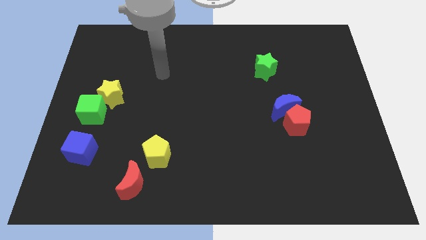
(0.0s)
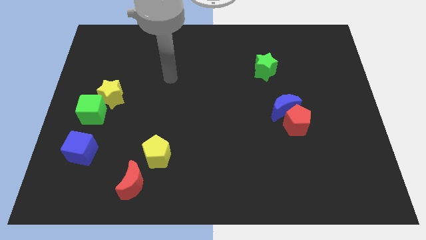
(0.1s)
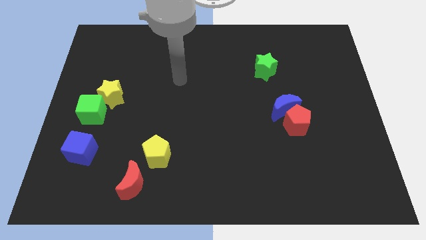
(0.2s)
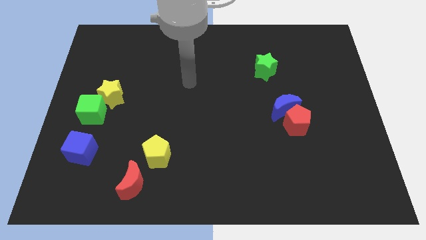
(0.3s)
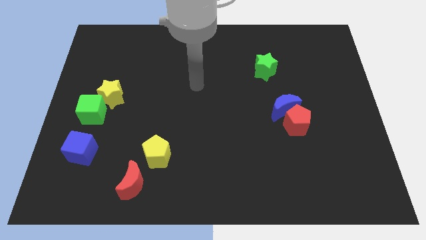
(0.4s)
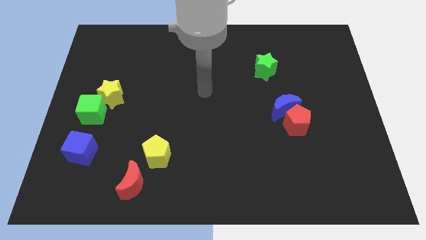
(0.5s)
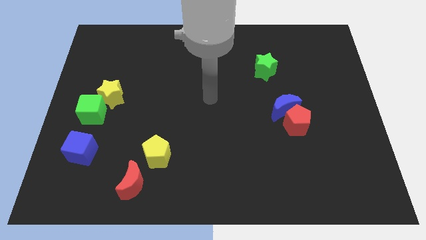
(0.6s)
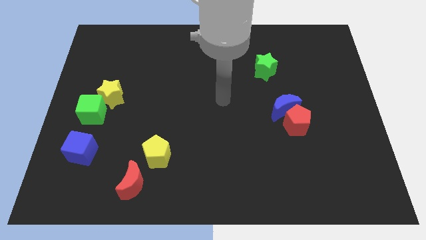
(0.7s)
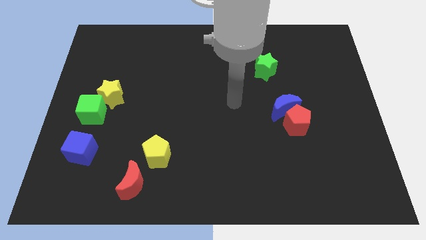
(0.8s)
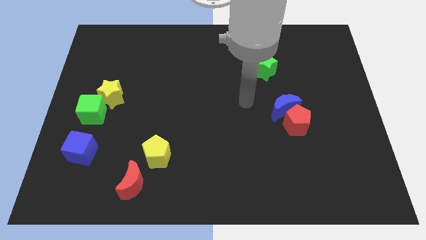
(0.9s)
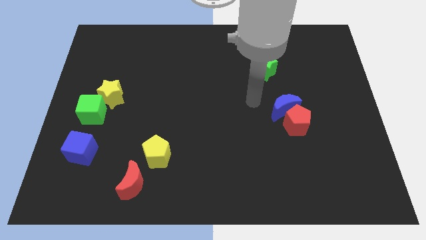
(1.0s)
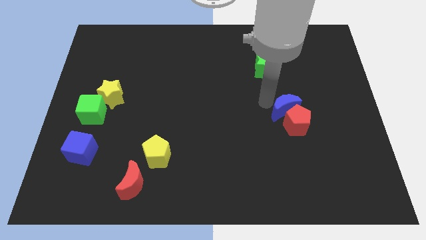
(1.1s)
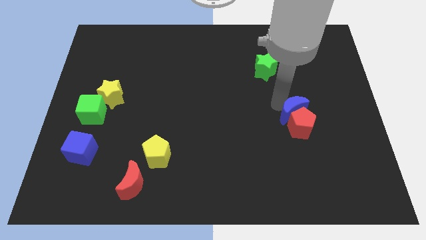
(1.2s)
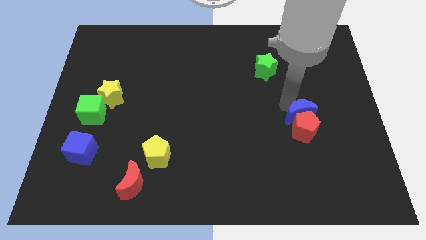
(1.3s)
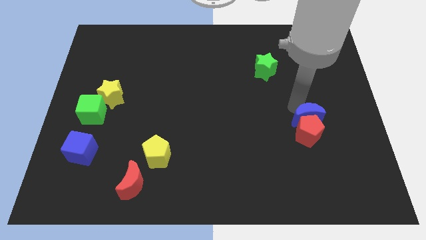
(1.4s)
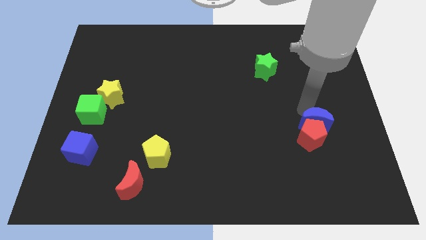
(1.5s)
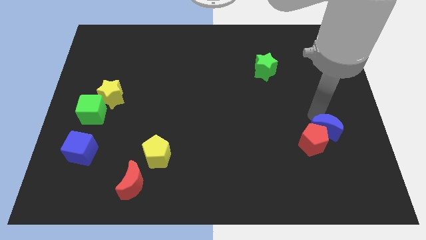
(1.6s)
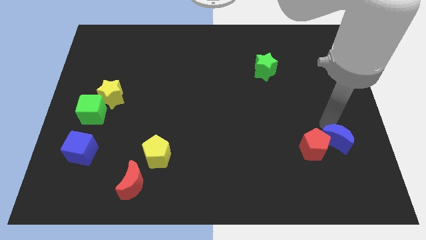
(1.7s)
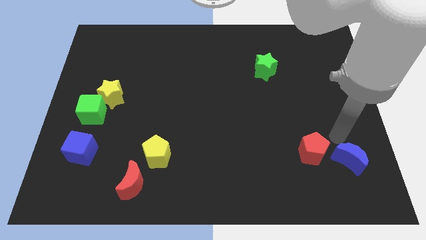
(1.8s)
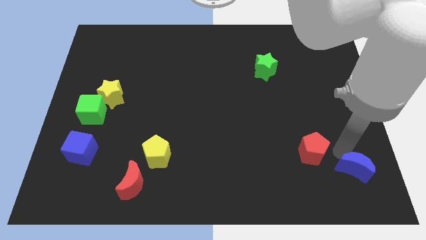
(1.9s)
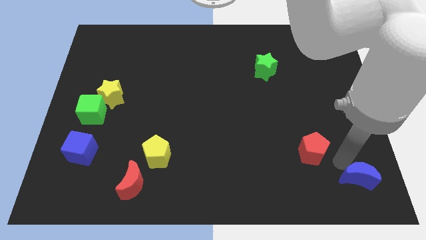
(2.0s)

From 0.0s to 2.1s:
pull the red pentagon apart from the blue moon

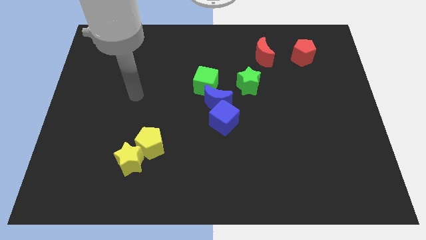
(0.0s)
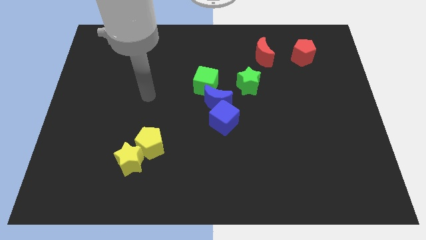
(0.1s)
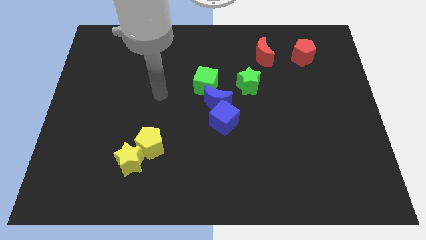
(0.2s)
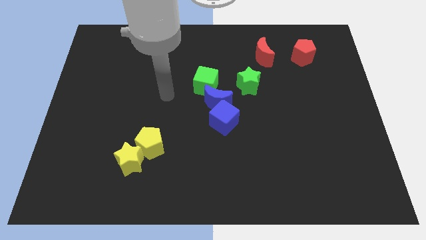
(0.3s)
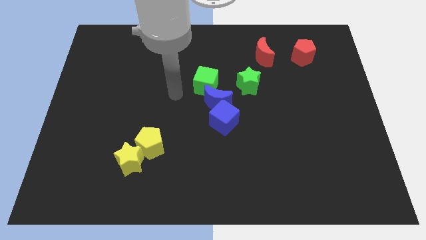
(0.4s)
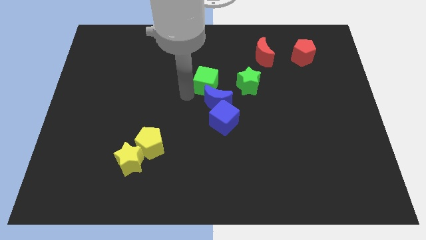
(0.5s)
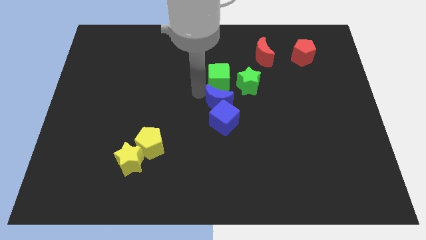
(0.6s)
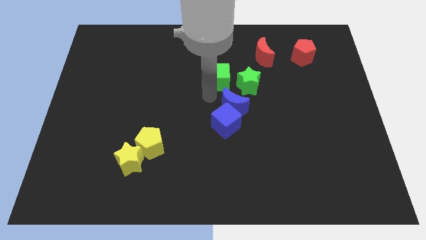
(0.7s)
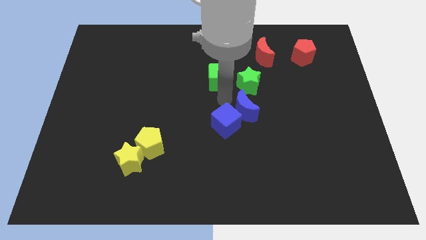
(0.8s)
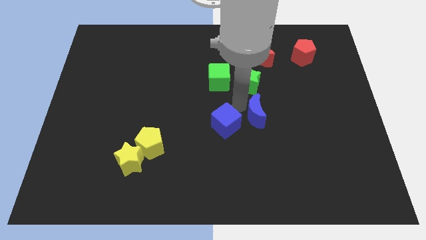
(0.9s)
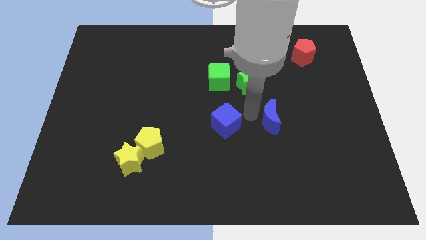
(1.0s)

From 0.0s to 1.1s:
pull the blue cube apart from the blue moon

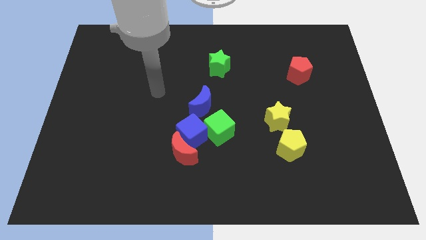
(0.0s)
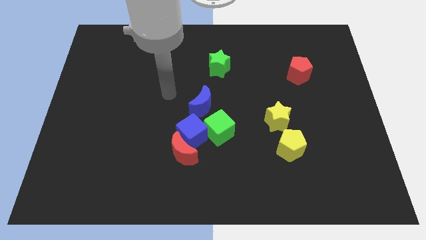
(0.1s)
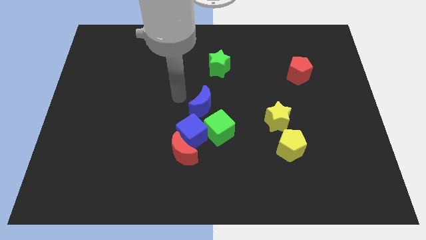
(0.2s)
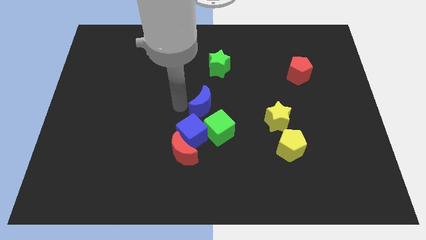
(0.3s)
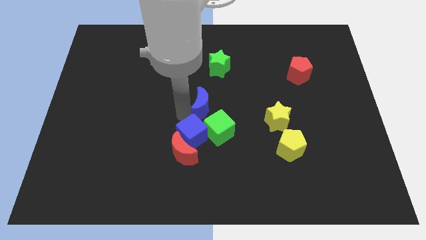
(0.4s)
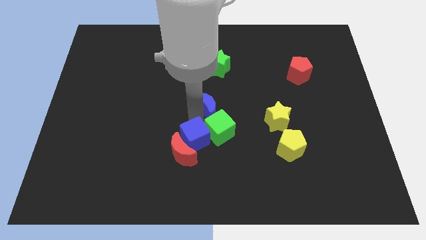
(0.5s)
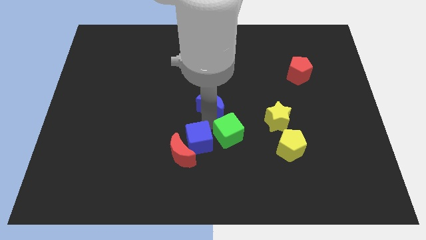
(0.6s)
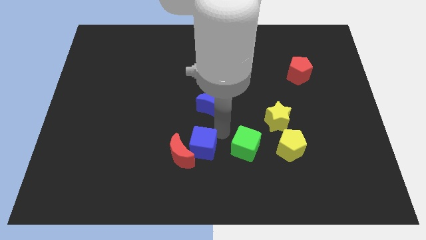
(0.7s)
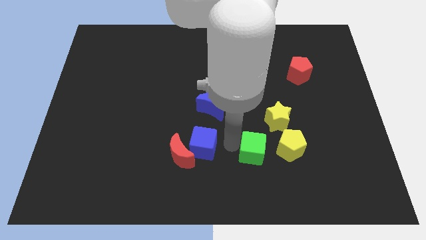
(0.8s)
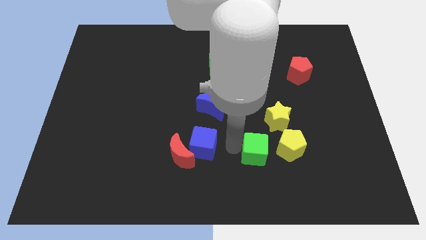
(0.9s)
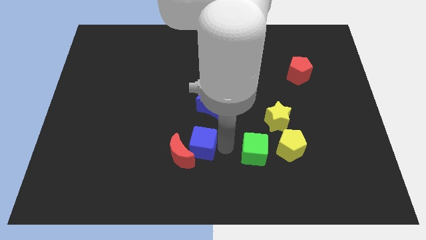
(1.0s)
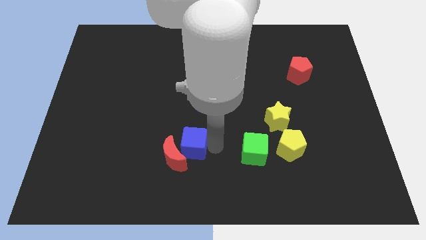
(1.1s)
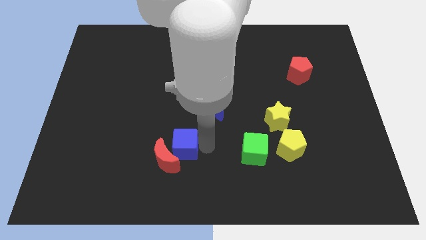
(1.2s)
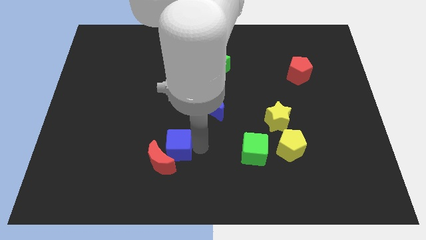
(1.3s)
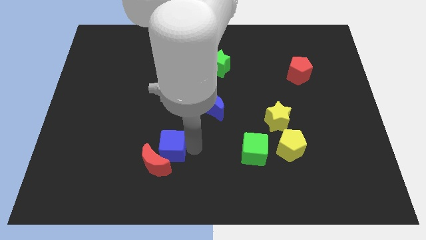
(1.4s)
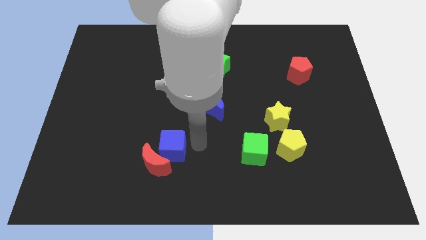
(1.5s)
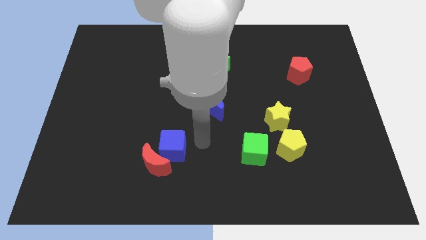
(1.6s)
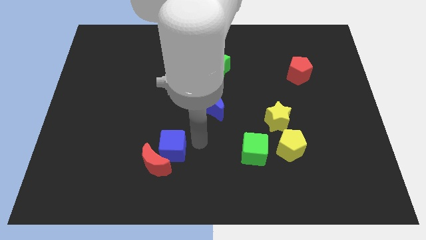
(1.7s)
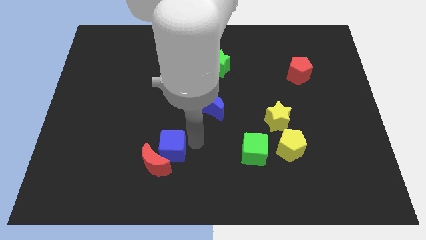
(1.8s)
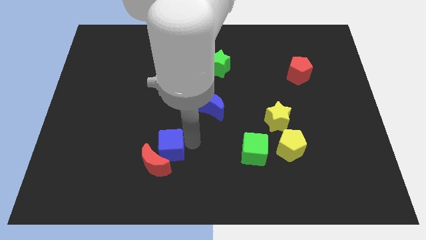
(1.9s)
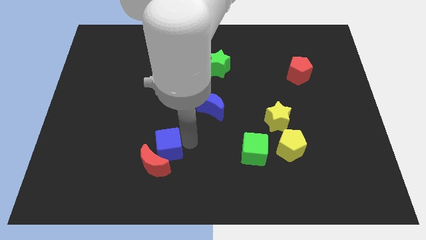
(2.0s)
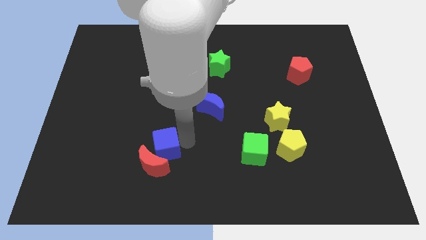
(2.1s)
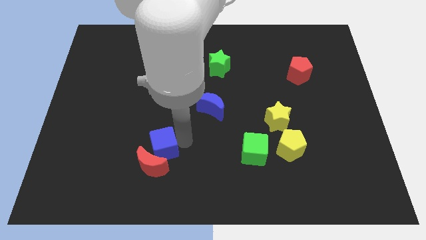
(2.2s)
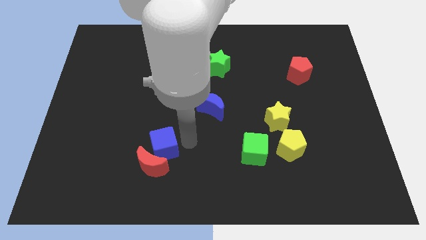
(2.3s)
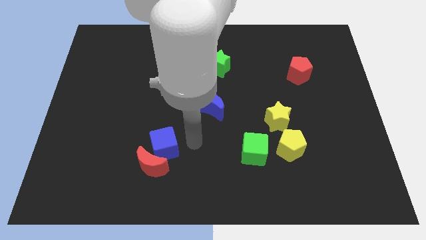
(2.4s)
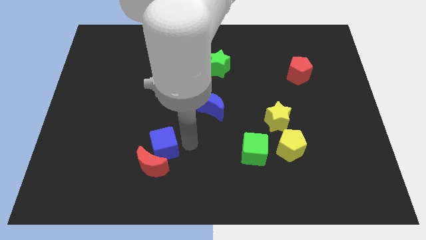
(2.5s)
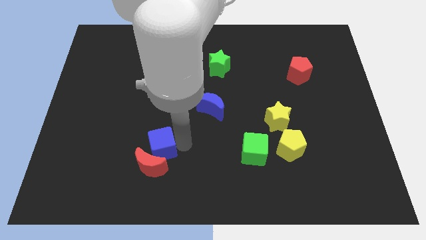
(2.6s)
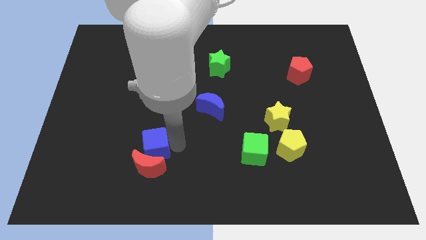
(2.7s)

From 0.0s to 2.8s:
separate the blue cube from the clump

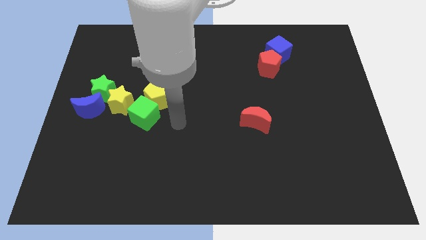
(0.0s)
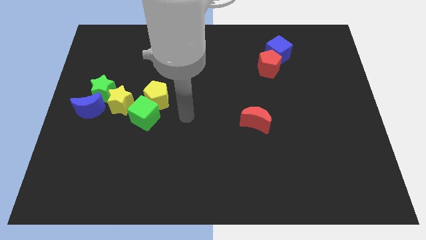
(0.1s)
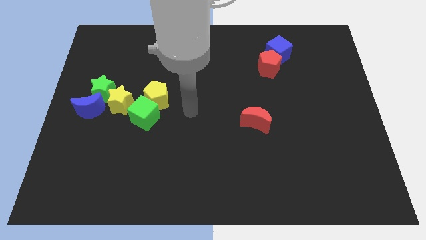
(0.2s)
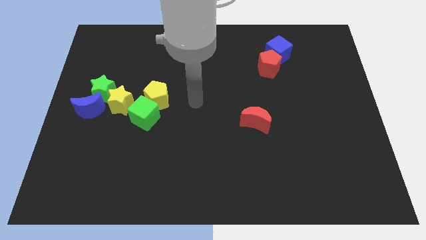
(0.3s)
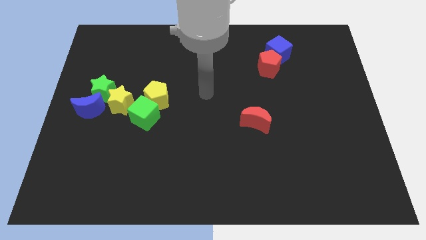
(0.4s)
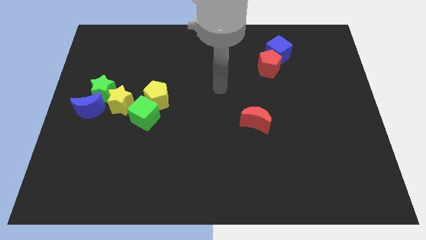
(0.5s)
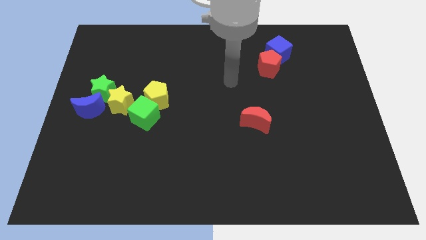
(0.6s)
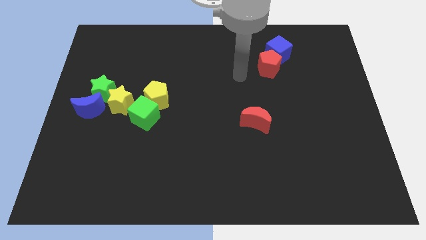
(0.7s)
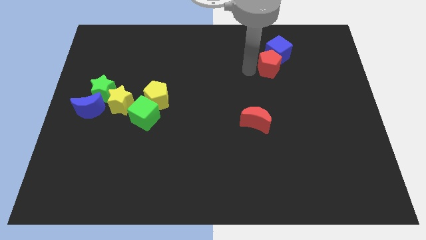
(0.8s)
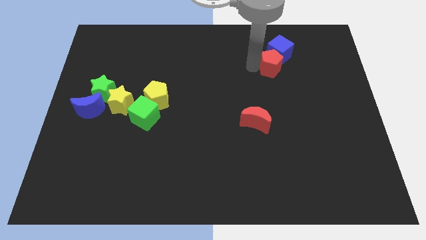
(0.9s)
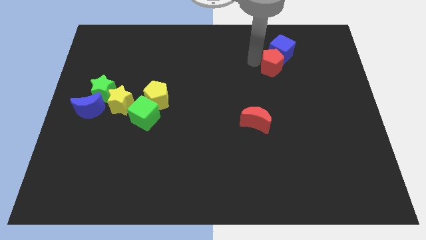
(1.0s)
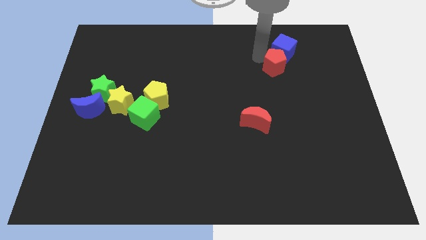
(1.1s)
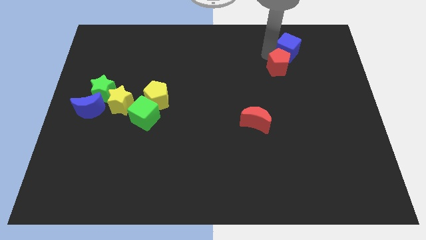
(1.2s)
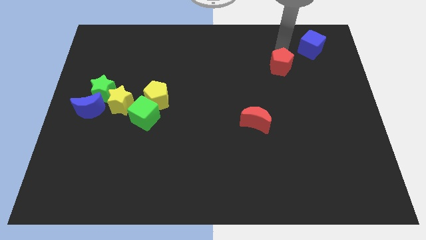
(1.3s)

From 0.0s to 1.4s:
move the red pentagon away from the blue cube

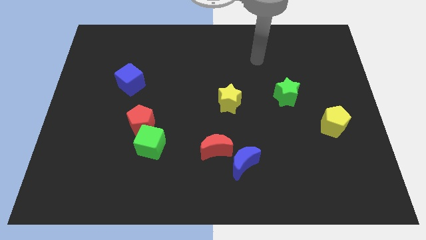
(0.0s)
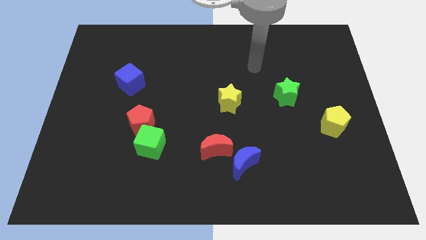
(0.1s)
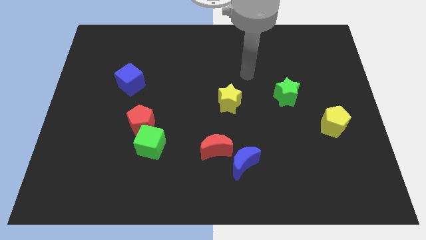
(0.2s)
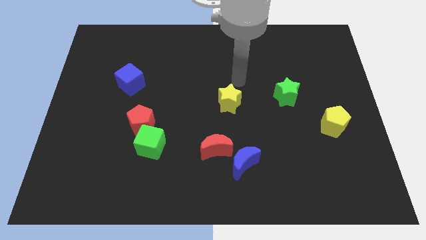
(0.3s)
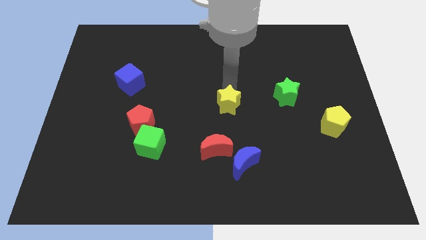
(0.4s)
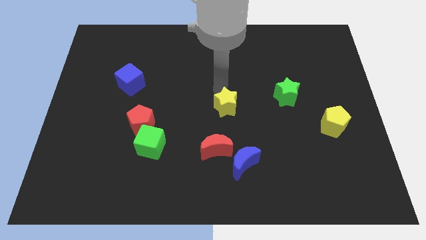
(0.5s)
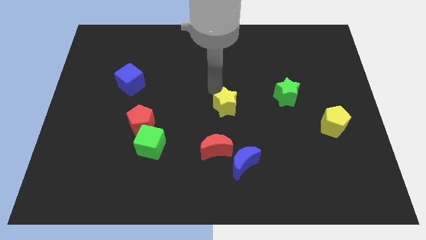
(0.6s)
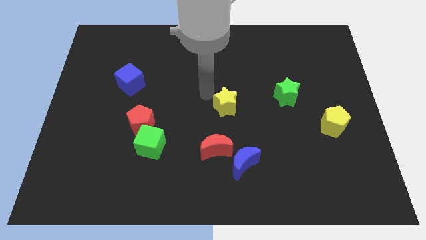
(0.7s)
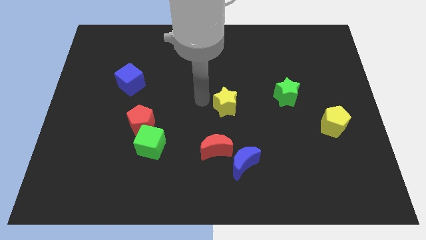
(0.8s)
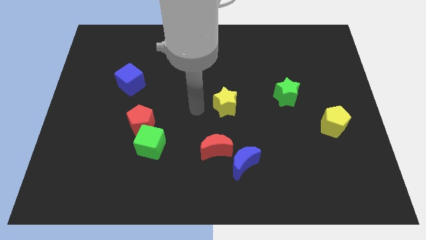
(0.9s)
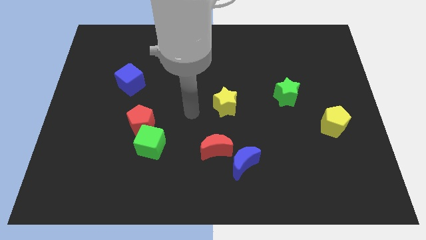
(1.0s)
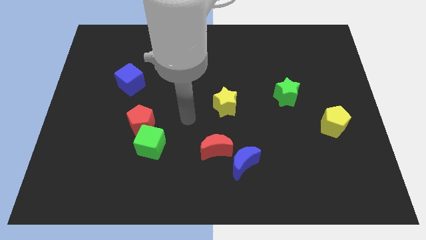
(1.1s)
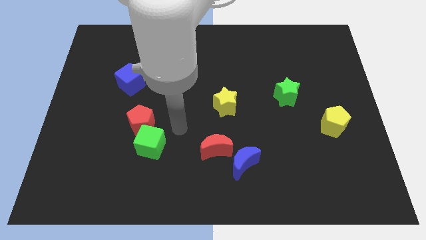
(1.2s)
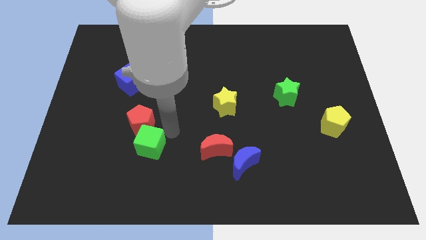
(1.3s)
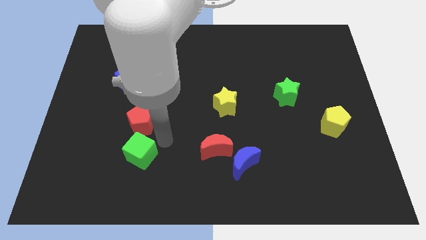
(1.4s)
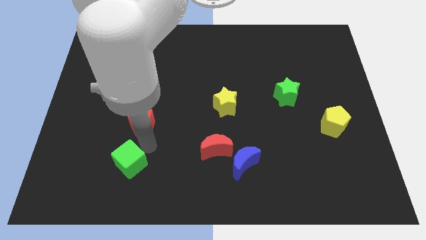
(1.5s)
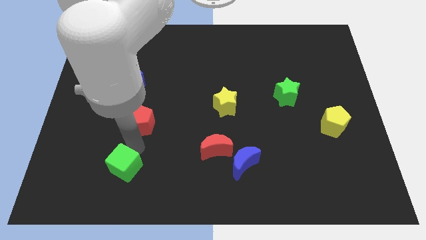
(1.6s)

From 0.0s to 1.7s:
pull the red pentagon apart from the green cube

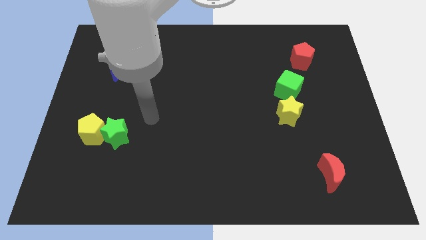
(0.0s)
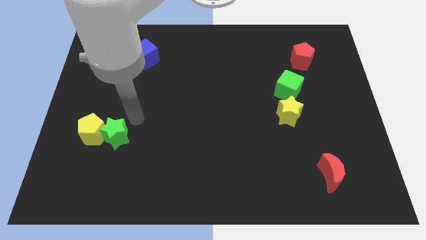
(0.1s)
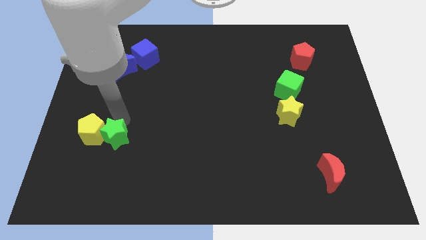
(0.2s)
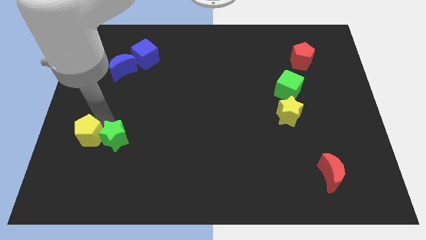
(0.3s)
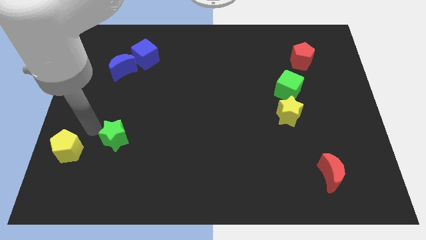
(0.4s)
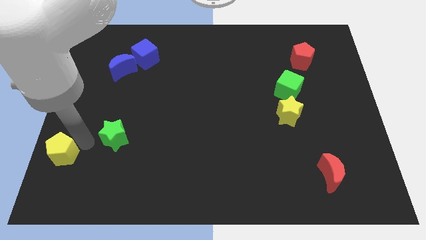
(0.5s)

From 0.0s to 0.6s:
separate the green star from the yellow pentagon
